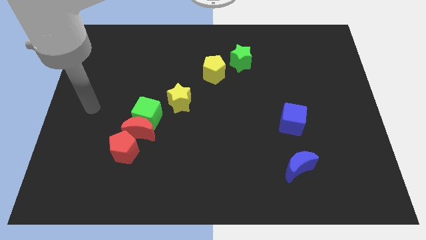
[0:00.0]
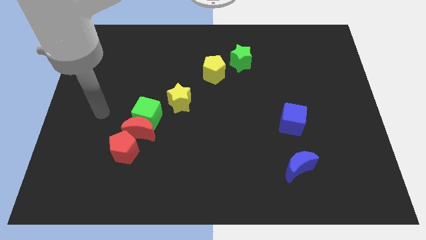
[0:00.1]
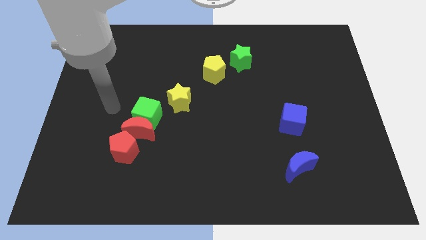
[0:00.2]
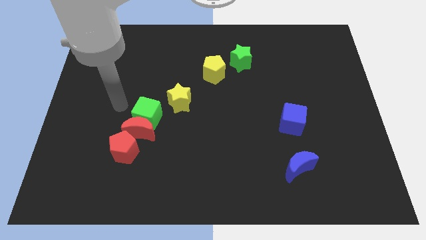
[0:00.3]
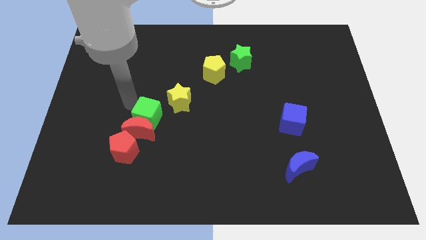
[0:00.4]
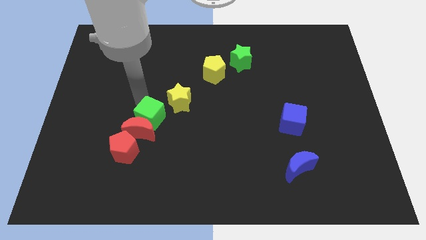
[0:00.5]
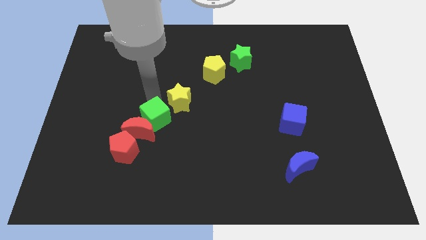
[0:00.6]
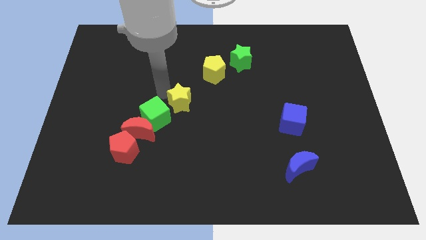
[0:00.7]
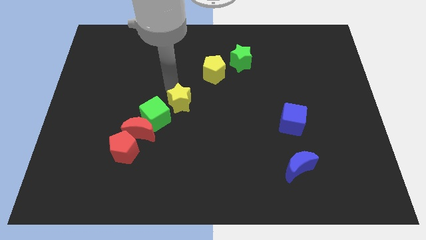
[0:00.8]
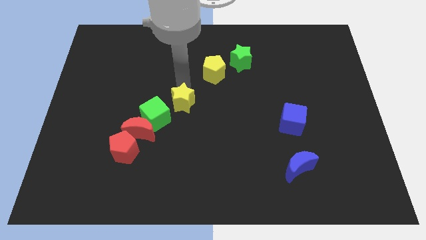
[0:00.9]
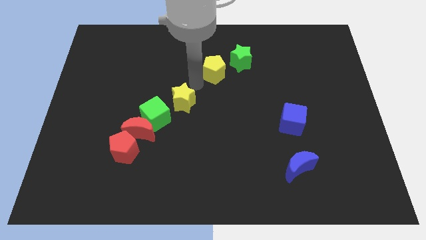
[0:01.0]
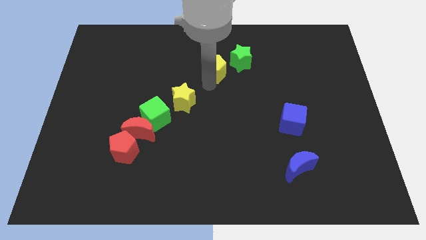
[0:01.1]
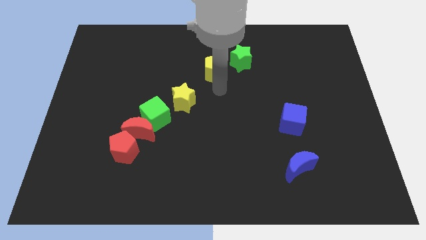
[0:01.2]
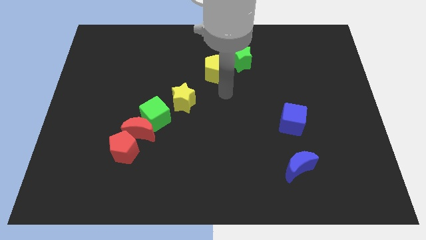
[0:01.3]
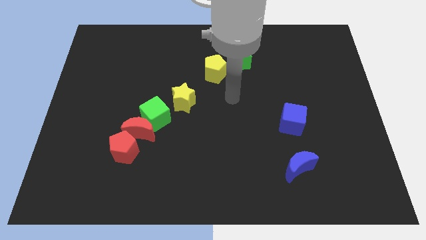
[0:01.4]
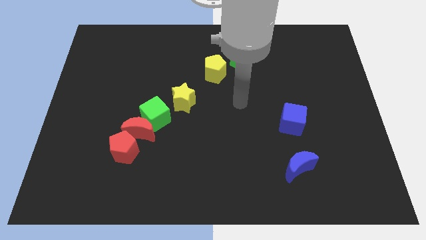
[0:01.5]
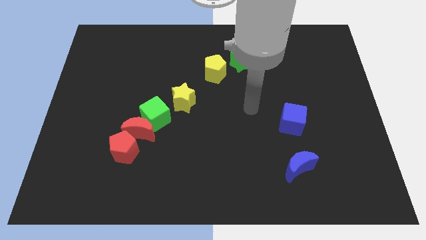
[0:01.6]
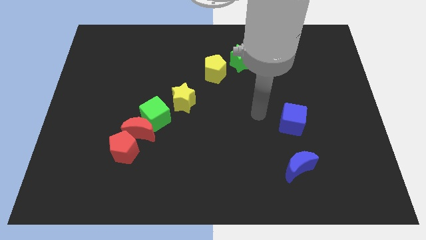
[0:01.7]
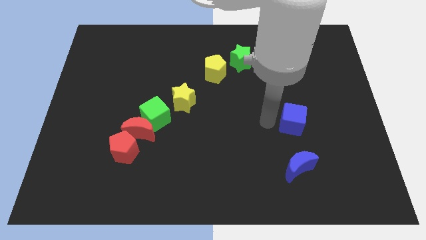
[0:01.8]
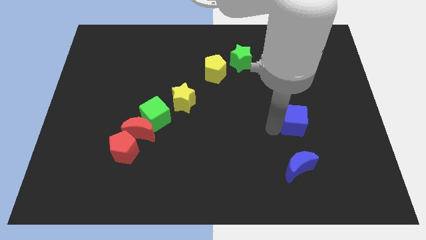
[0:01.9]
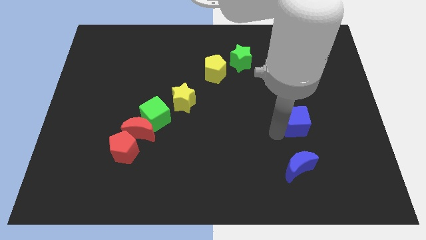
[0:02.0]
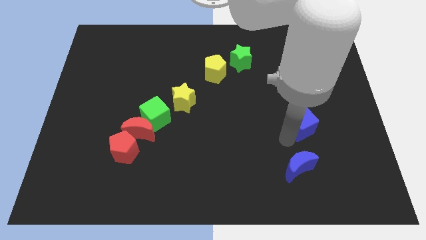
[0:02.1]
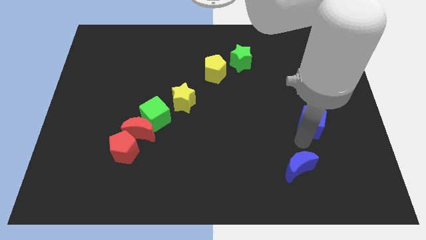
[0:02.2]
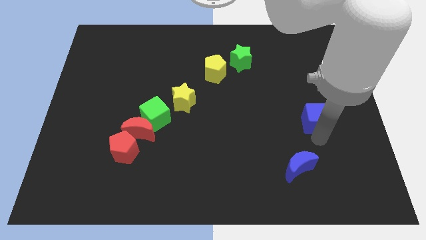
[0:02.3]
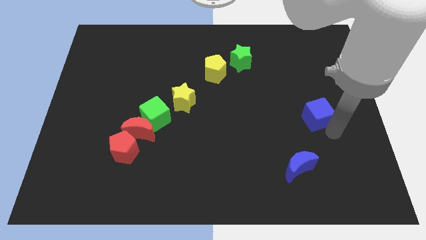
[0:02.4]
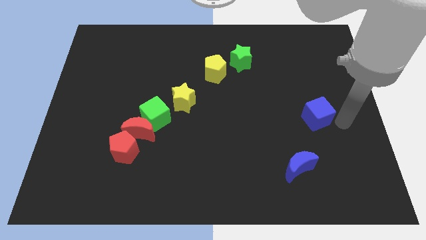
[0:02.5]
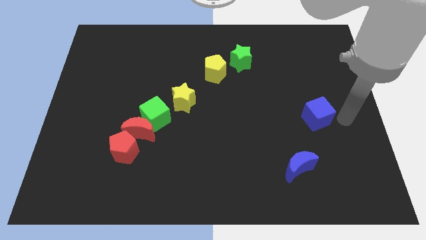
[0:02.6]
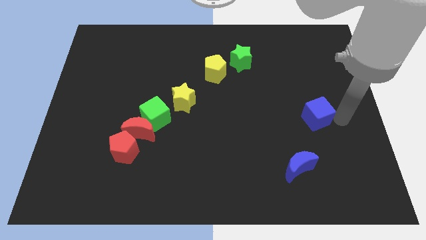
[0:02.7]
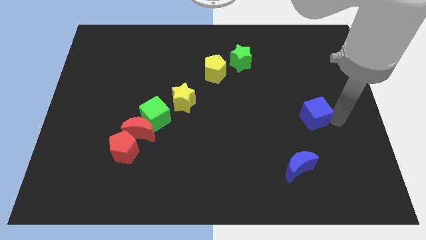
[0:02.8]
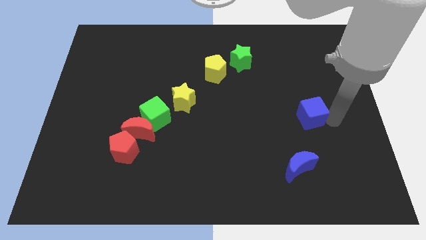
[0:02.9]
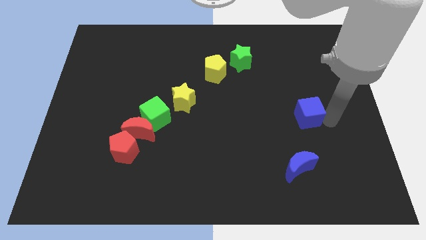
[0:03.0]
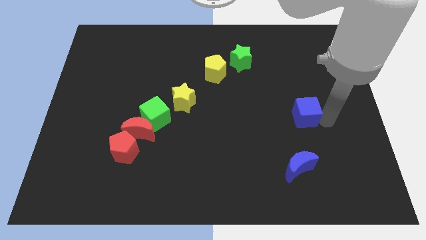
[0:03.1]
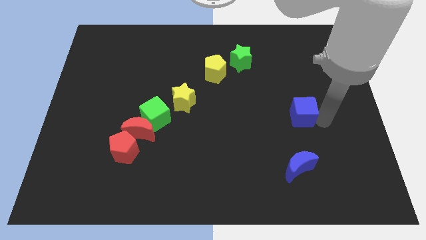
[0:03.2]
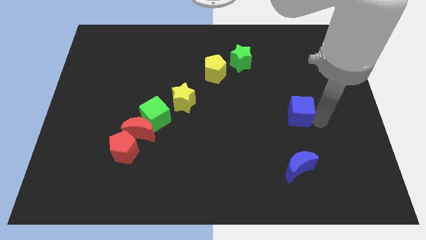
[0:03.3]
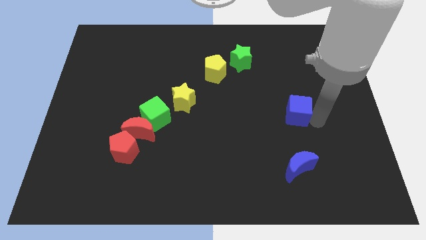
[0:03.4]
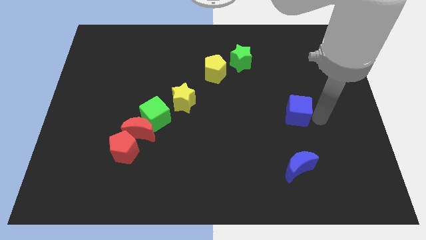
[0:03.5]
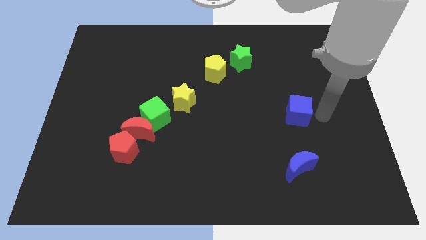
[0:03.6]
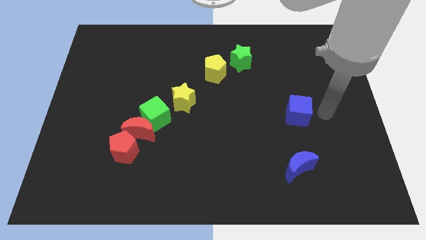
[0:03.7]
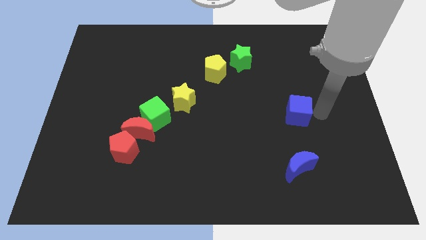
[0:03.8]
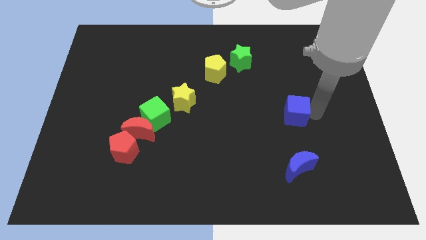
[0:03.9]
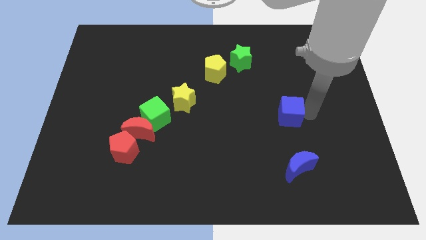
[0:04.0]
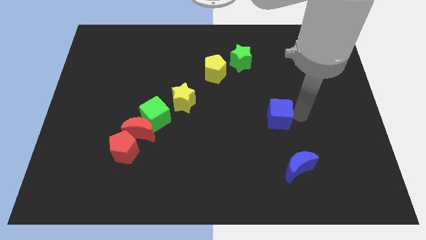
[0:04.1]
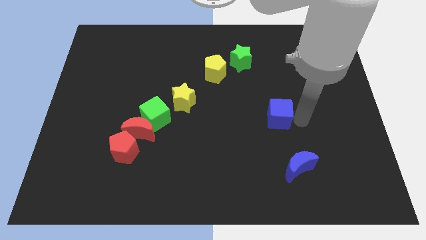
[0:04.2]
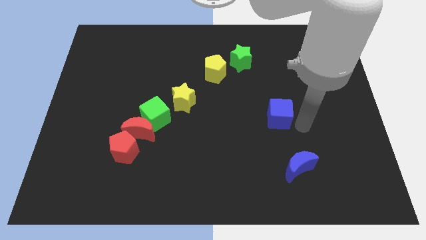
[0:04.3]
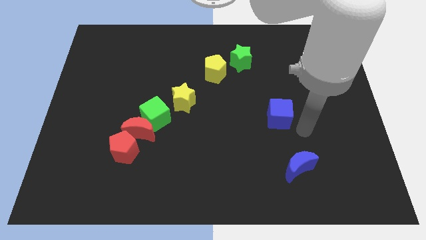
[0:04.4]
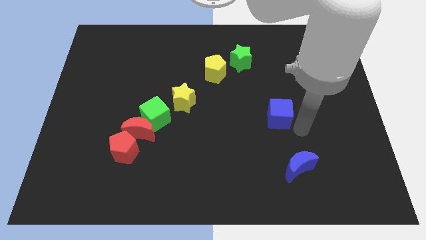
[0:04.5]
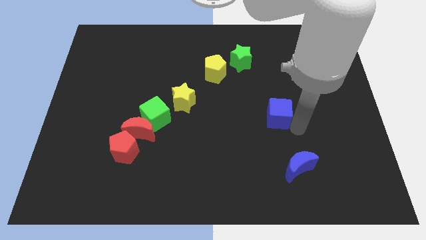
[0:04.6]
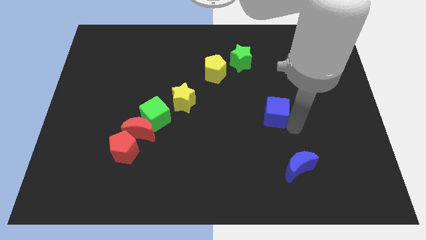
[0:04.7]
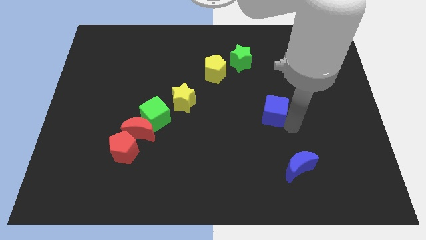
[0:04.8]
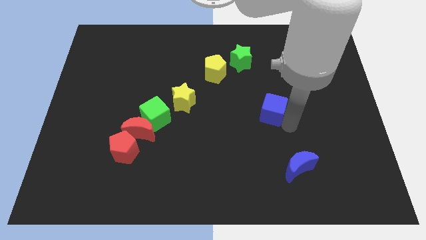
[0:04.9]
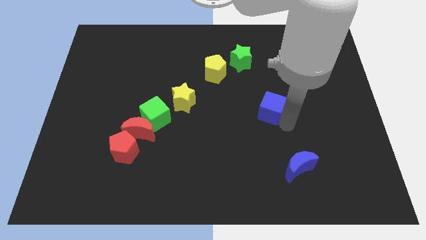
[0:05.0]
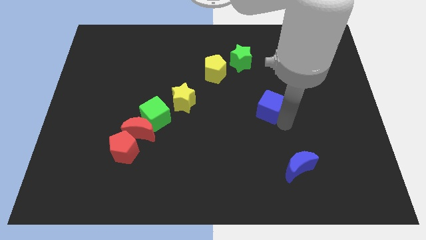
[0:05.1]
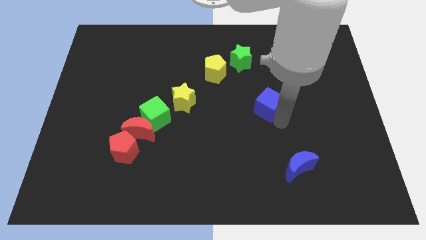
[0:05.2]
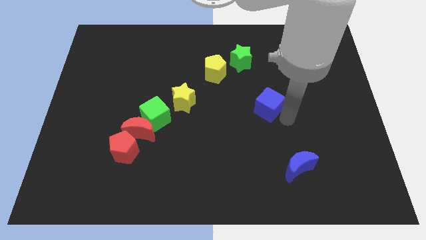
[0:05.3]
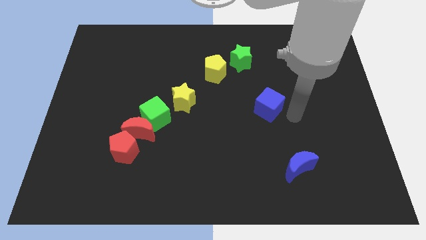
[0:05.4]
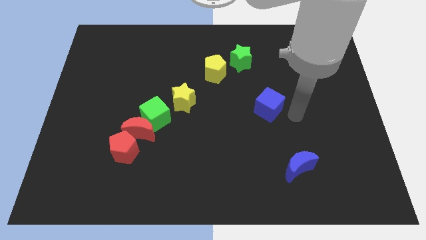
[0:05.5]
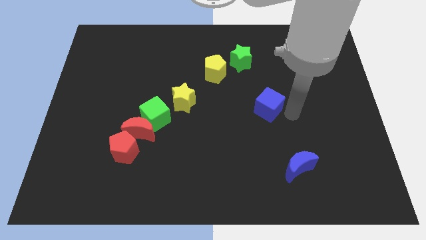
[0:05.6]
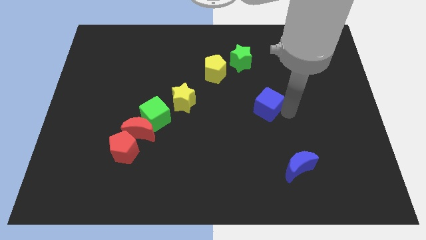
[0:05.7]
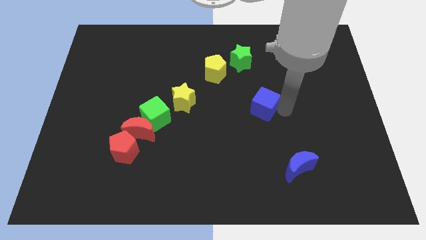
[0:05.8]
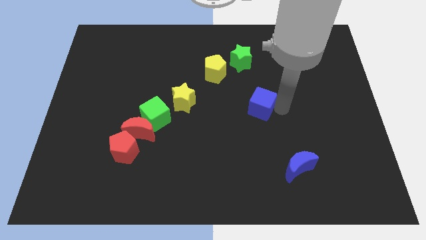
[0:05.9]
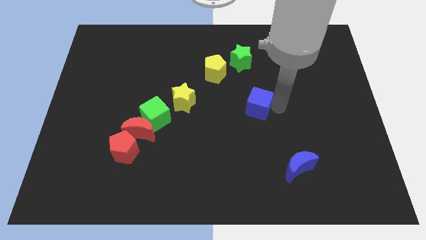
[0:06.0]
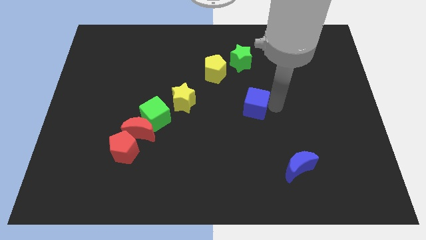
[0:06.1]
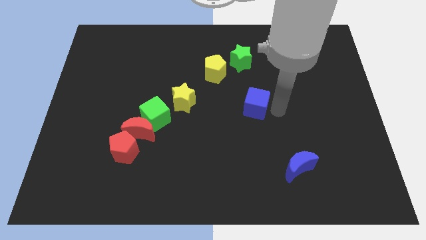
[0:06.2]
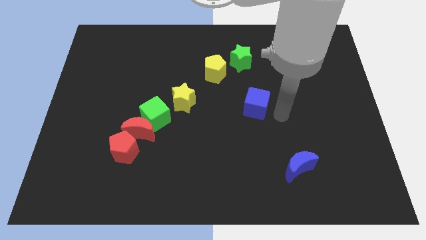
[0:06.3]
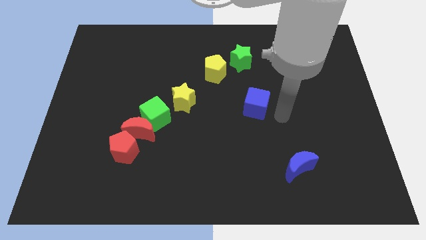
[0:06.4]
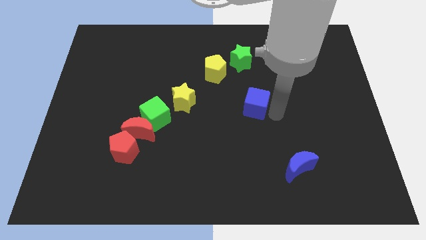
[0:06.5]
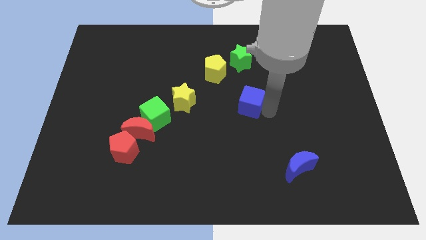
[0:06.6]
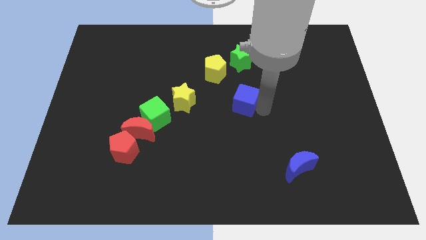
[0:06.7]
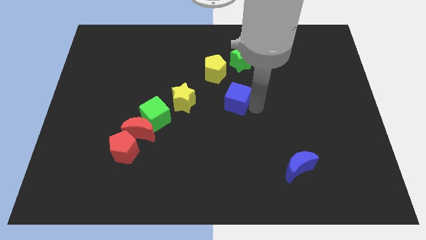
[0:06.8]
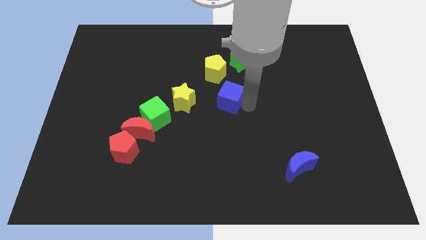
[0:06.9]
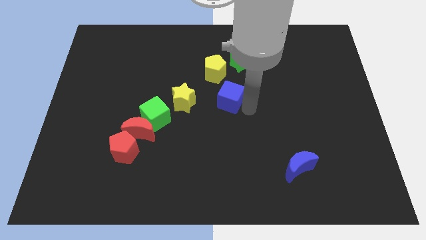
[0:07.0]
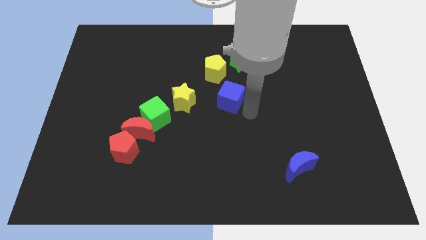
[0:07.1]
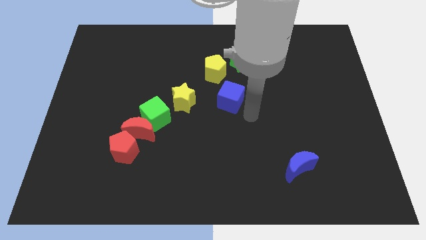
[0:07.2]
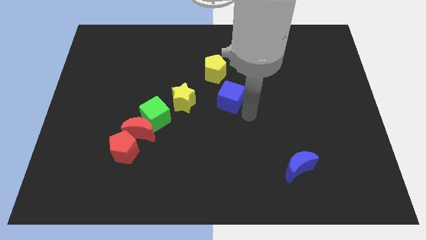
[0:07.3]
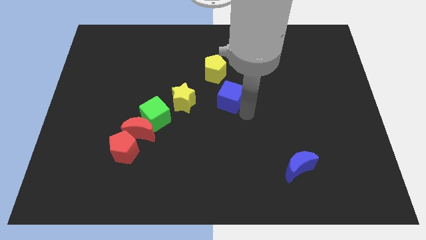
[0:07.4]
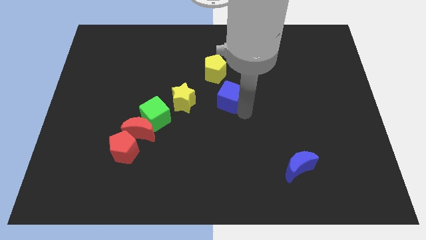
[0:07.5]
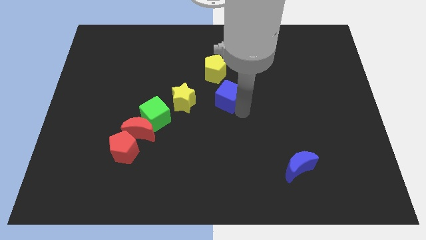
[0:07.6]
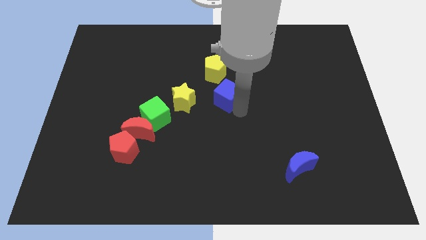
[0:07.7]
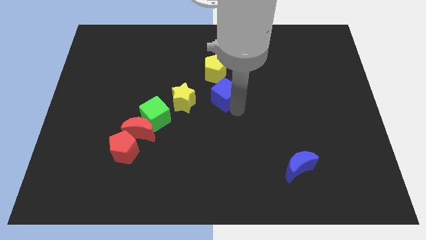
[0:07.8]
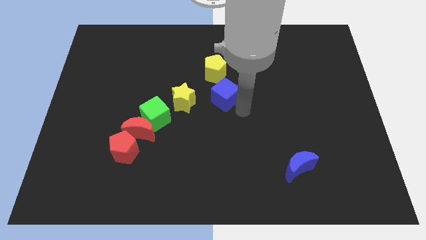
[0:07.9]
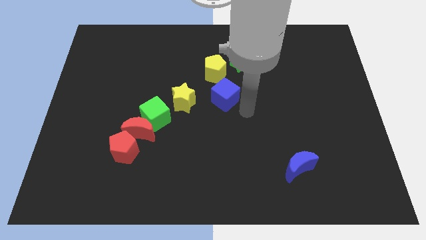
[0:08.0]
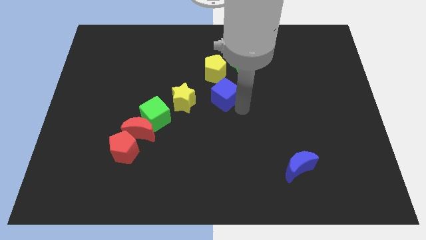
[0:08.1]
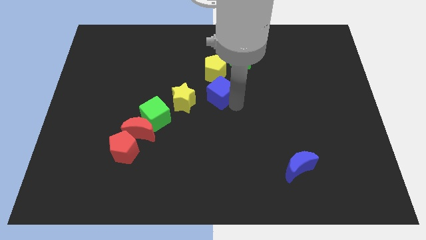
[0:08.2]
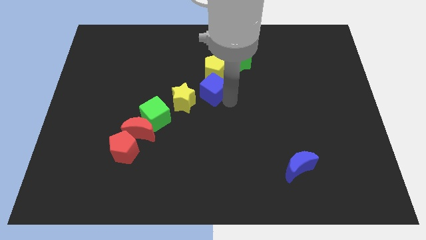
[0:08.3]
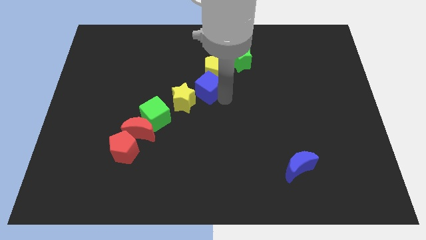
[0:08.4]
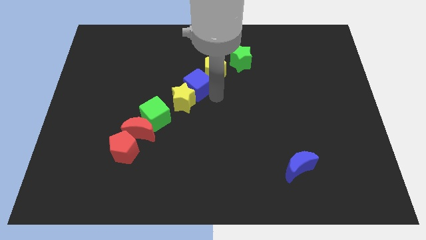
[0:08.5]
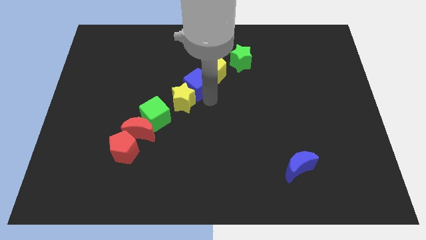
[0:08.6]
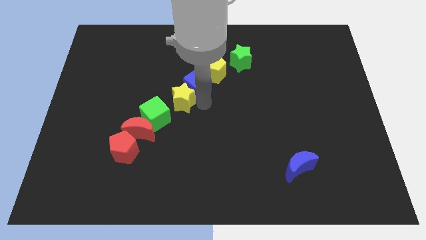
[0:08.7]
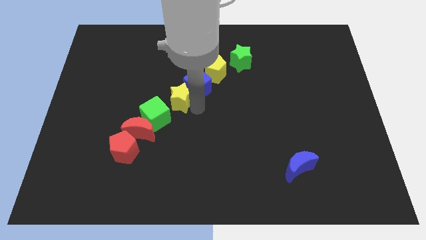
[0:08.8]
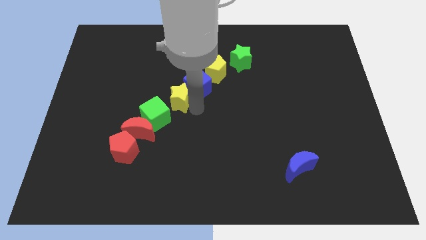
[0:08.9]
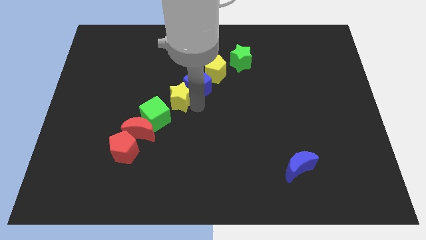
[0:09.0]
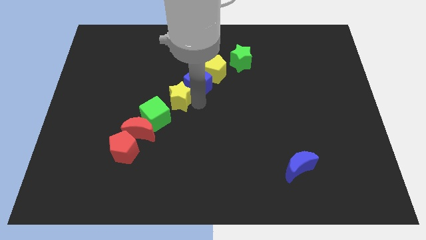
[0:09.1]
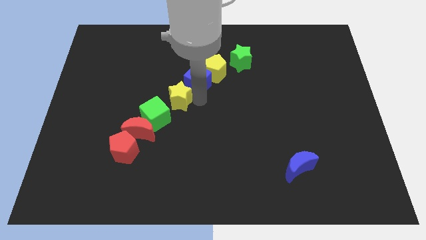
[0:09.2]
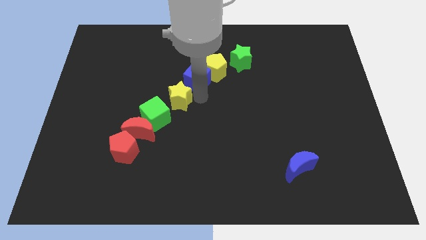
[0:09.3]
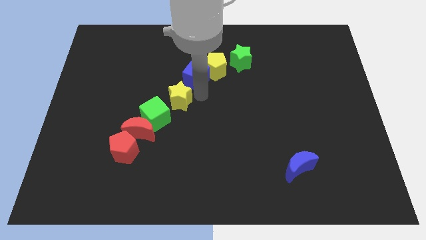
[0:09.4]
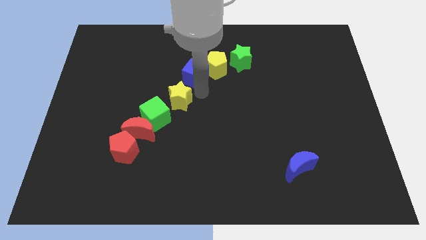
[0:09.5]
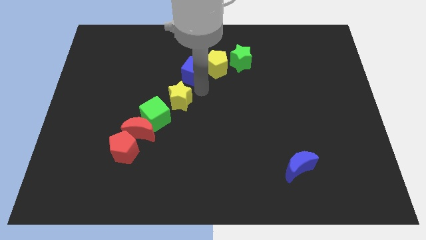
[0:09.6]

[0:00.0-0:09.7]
move the blue cube to the left of the green star
